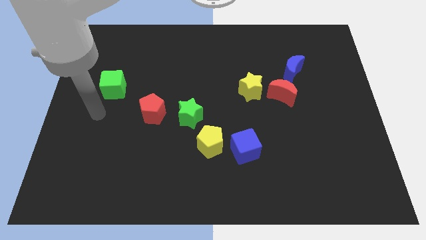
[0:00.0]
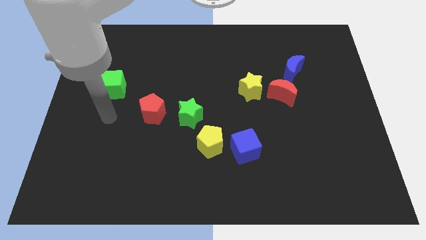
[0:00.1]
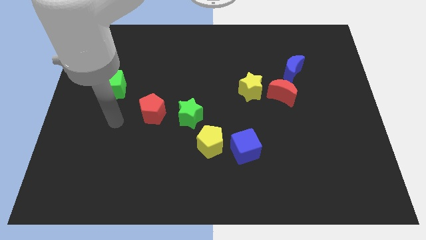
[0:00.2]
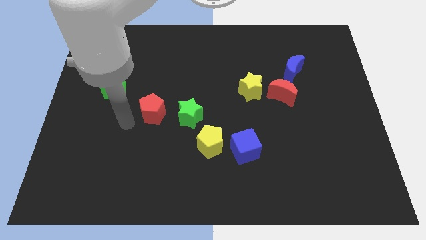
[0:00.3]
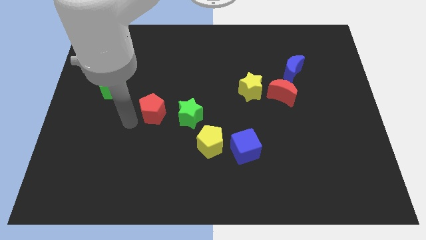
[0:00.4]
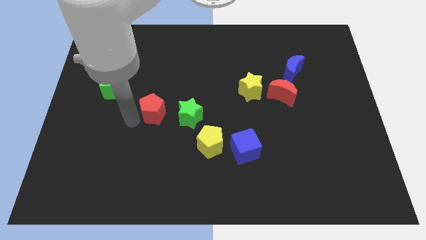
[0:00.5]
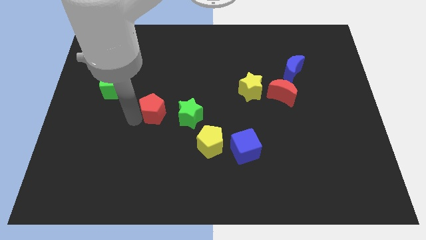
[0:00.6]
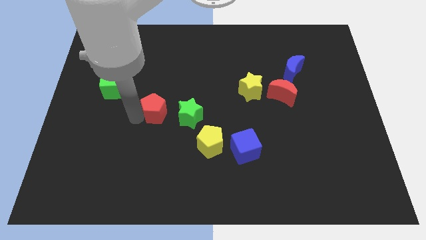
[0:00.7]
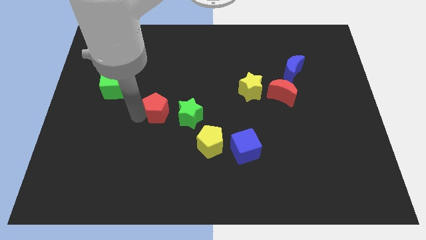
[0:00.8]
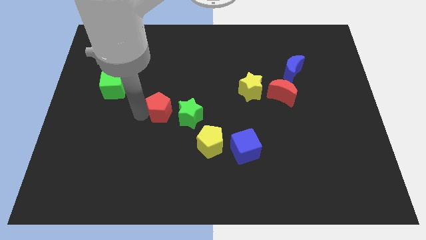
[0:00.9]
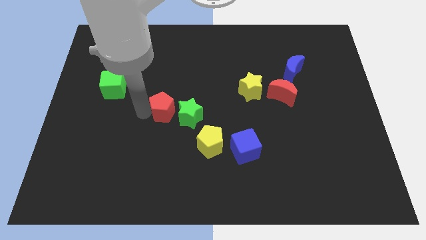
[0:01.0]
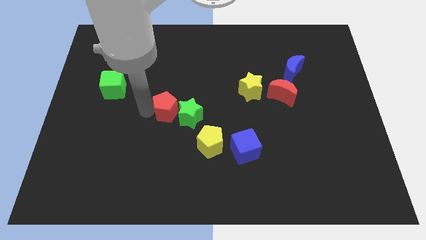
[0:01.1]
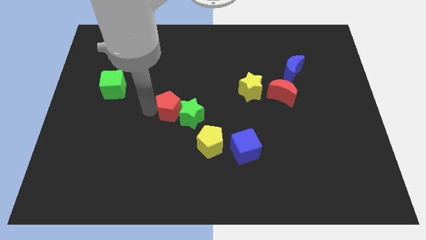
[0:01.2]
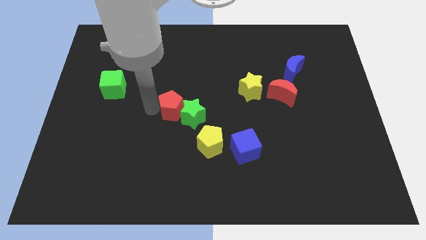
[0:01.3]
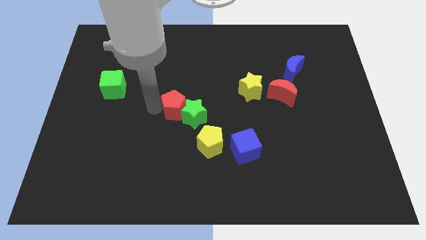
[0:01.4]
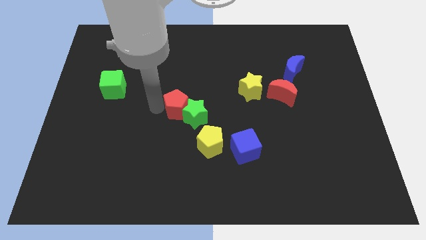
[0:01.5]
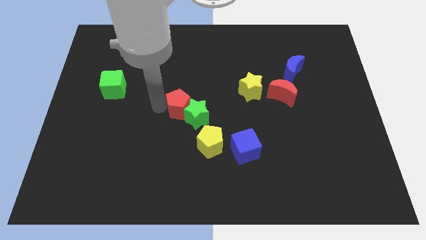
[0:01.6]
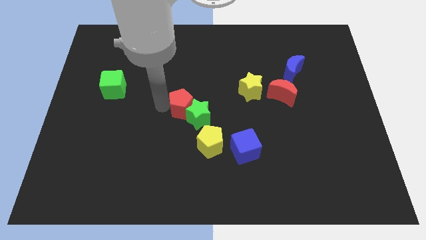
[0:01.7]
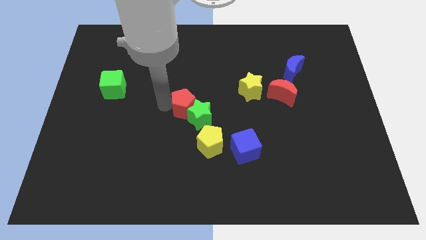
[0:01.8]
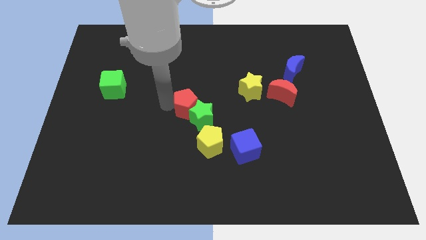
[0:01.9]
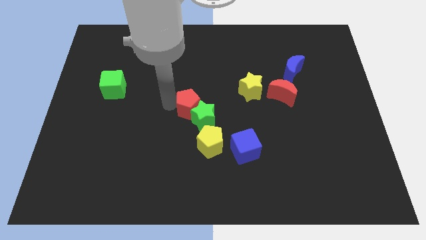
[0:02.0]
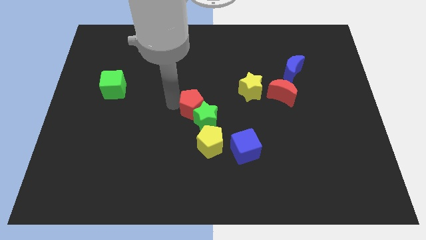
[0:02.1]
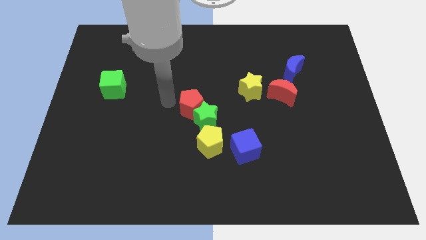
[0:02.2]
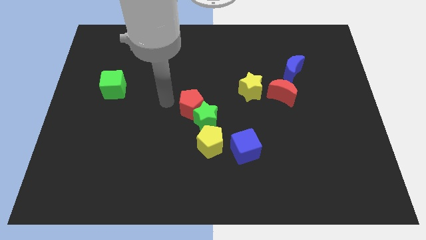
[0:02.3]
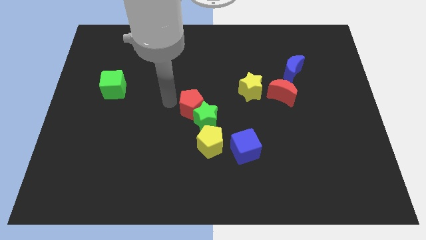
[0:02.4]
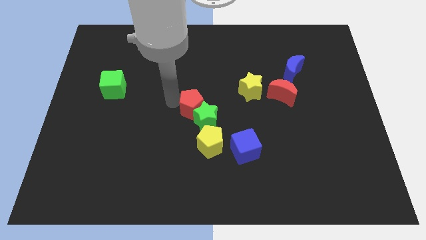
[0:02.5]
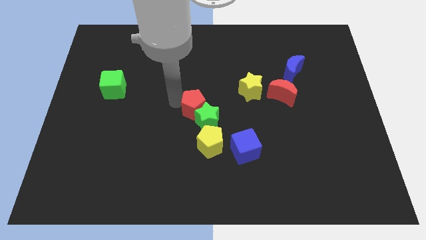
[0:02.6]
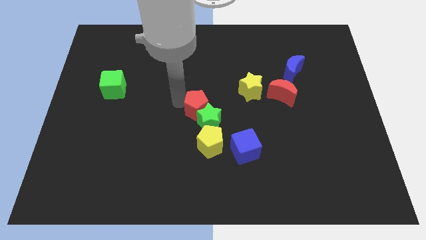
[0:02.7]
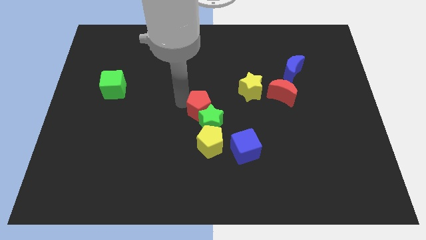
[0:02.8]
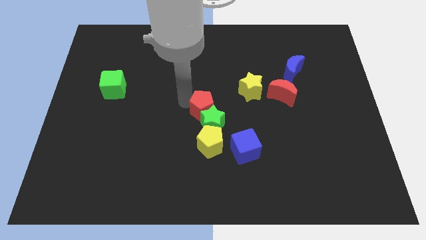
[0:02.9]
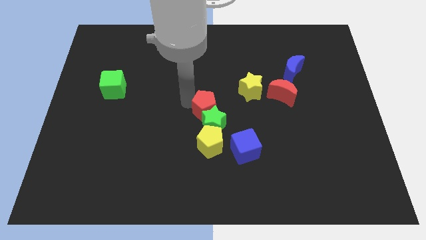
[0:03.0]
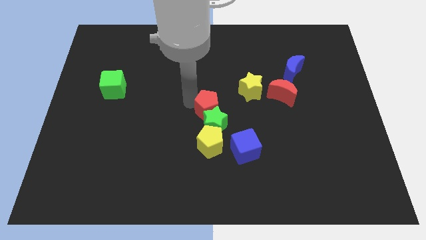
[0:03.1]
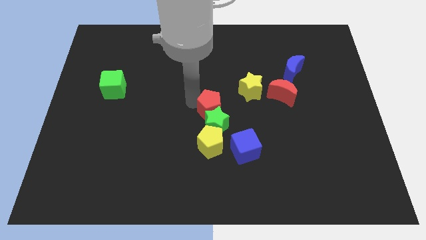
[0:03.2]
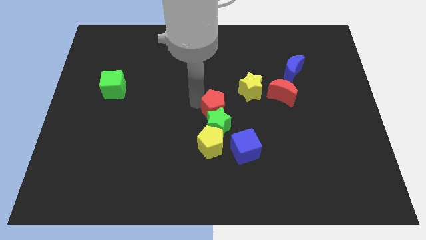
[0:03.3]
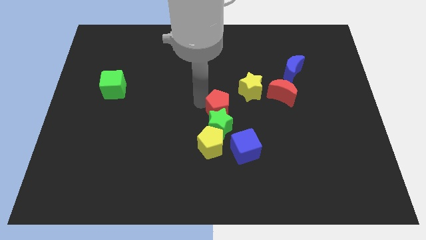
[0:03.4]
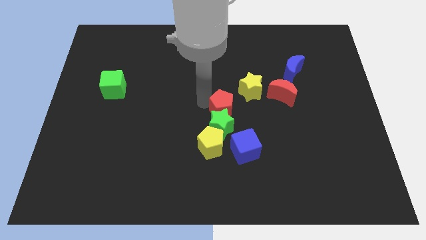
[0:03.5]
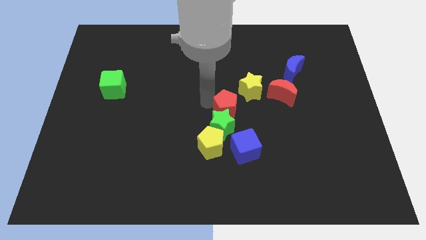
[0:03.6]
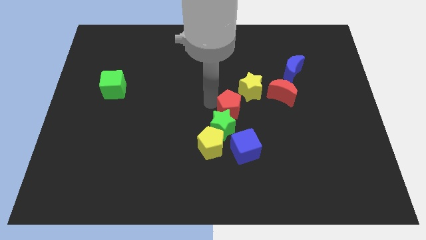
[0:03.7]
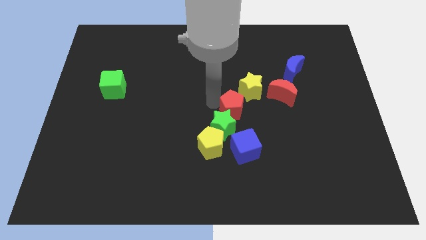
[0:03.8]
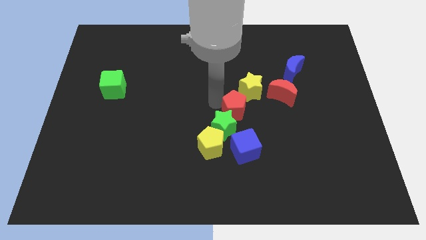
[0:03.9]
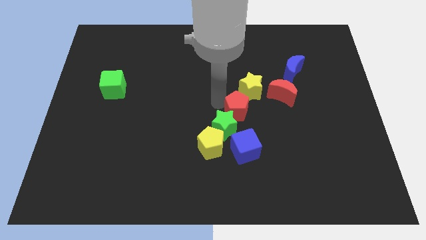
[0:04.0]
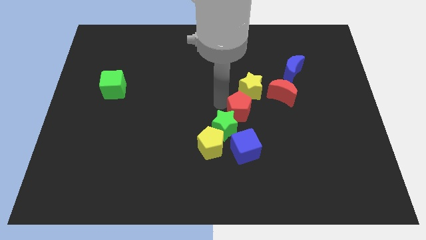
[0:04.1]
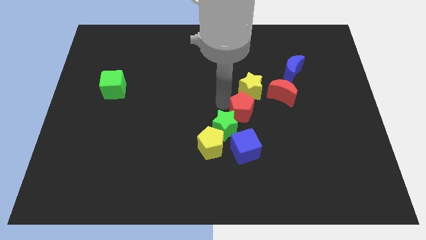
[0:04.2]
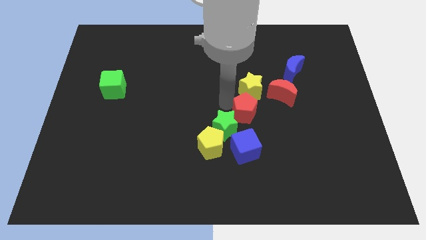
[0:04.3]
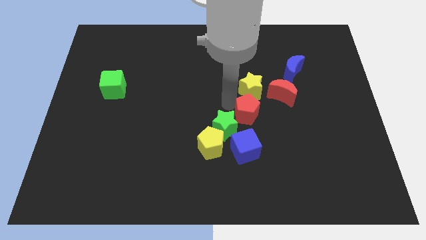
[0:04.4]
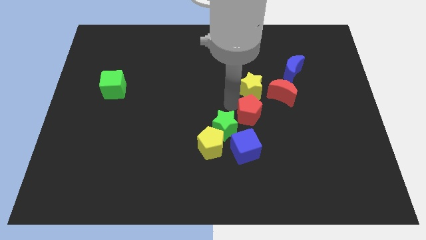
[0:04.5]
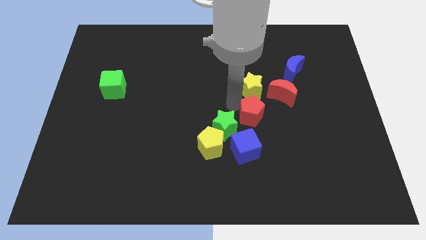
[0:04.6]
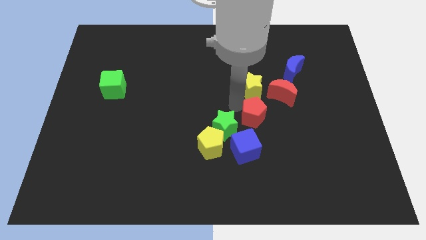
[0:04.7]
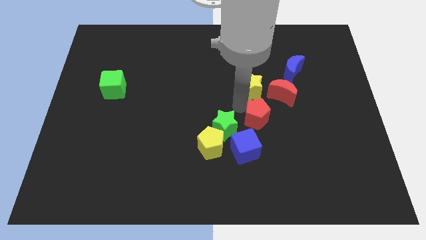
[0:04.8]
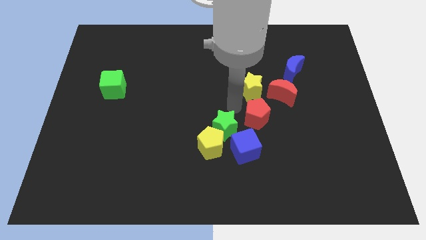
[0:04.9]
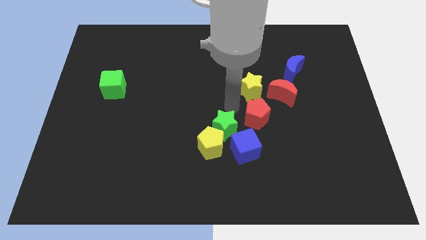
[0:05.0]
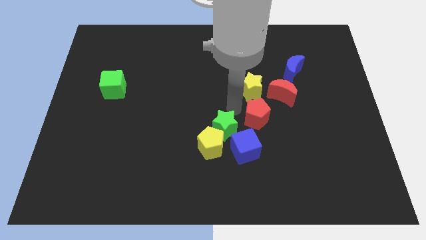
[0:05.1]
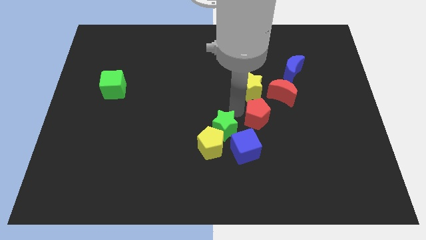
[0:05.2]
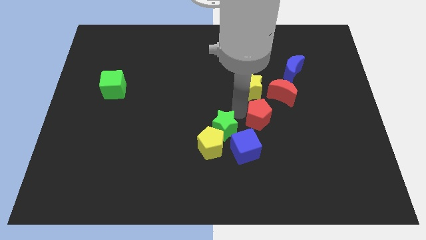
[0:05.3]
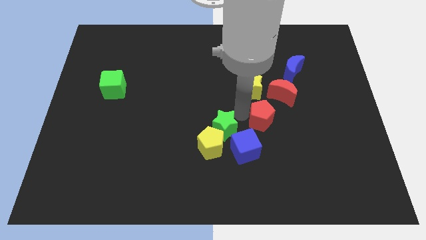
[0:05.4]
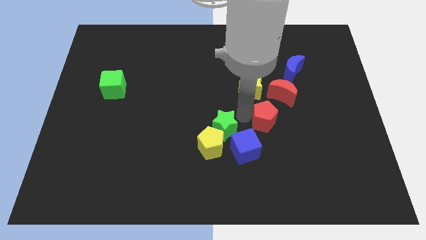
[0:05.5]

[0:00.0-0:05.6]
put the red pentagon below the red moon

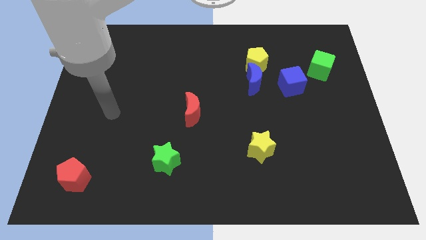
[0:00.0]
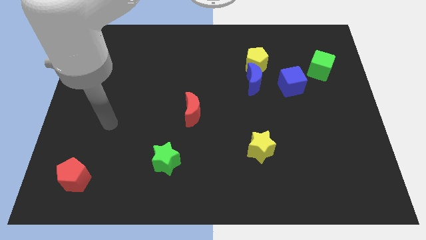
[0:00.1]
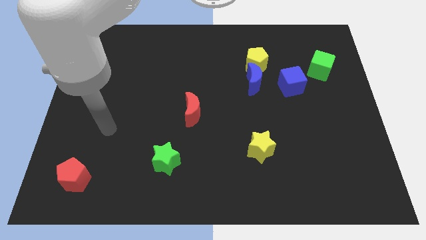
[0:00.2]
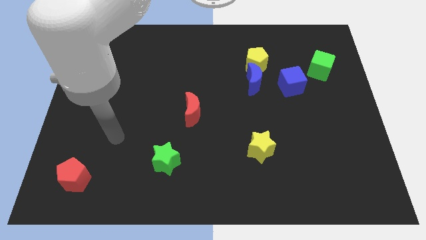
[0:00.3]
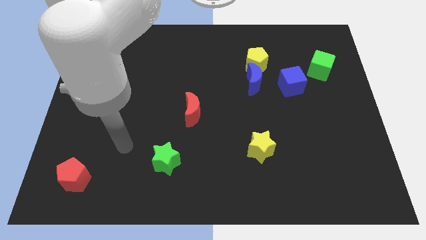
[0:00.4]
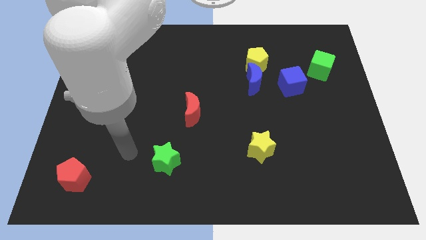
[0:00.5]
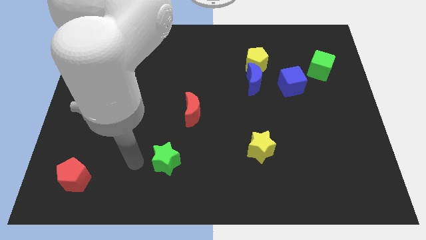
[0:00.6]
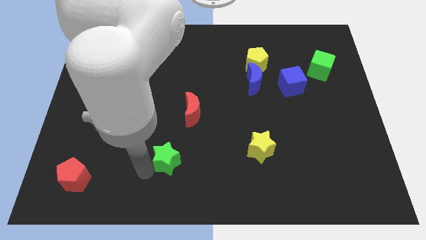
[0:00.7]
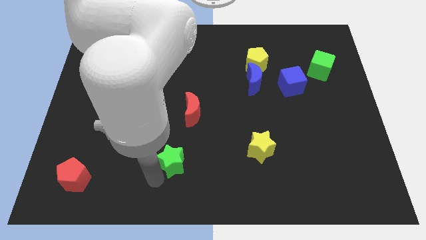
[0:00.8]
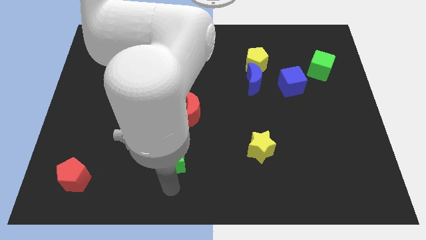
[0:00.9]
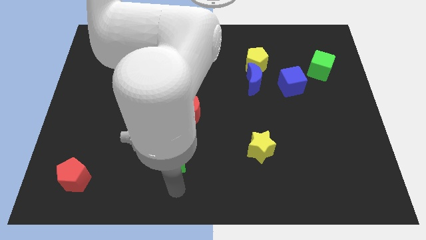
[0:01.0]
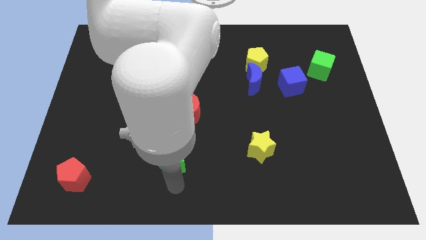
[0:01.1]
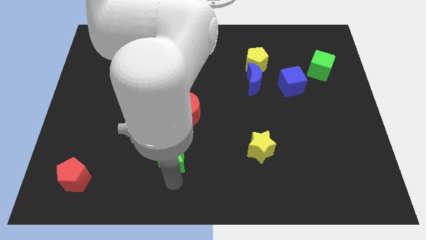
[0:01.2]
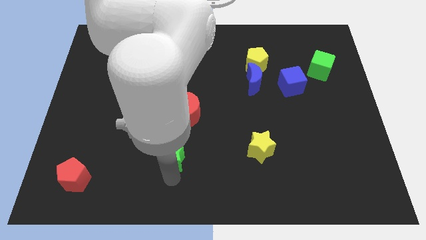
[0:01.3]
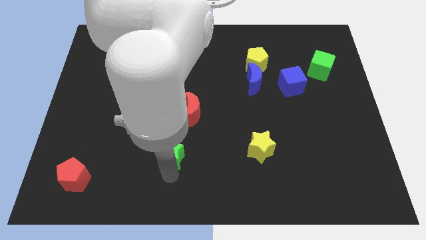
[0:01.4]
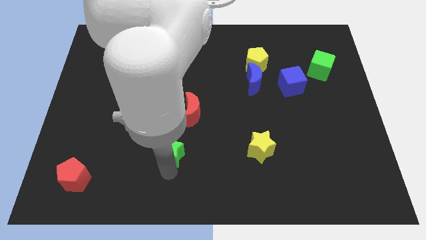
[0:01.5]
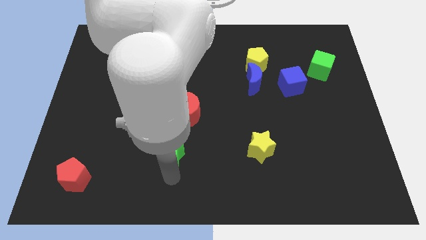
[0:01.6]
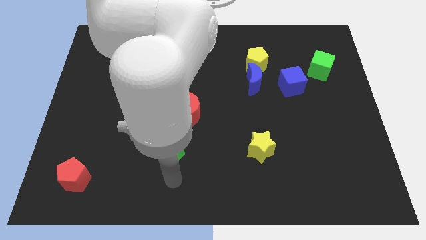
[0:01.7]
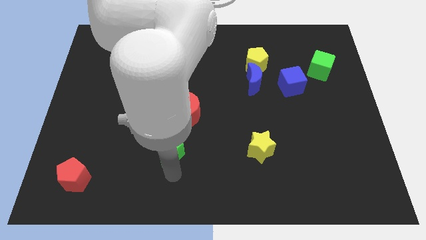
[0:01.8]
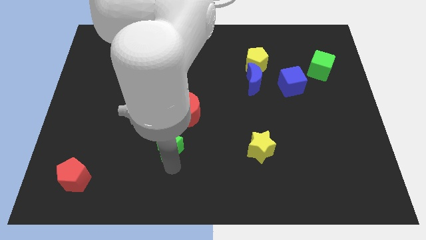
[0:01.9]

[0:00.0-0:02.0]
slide the green star to the bottom left side of the red moon
